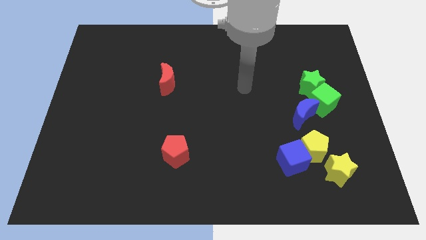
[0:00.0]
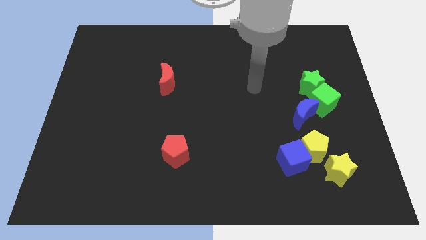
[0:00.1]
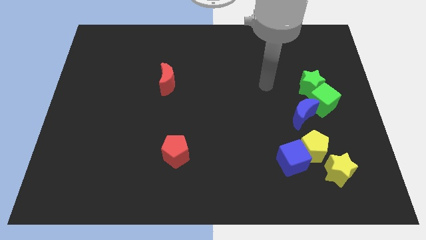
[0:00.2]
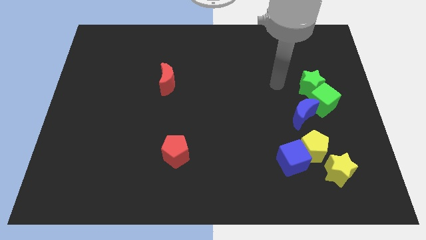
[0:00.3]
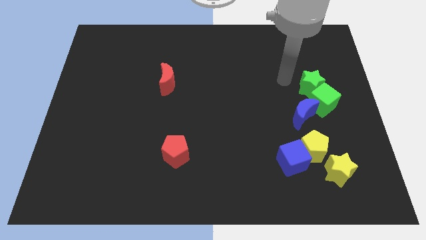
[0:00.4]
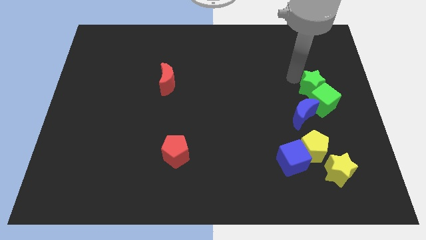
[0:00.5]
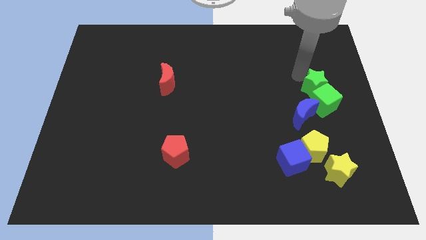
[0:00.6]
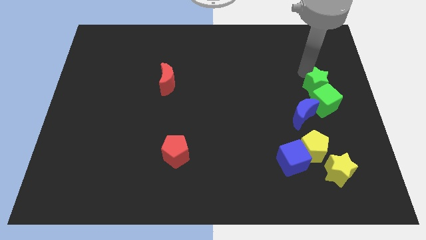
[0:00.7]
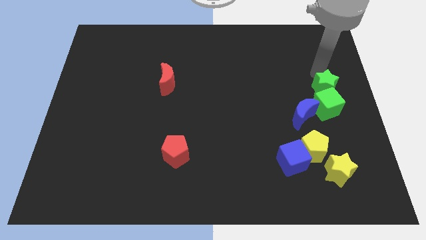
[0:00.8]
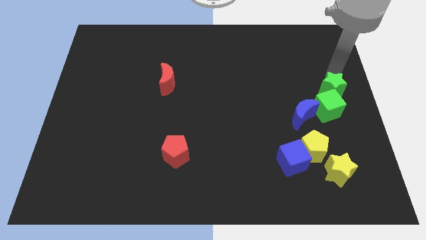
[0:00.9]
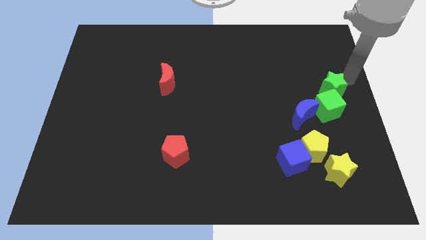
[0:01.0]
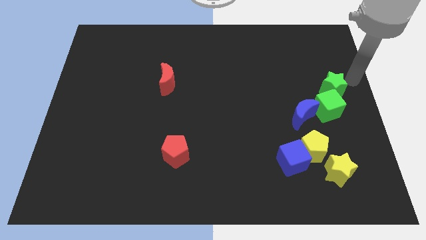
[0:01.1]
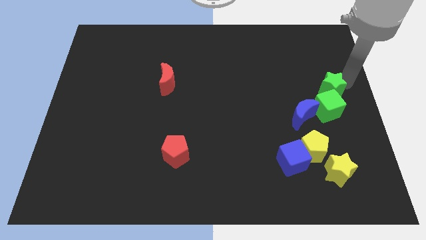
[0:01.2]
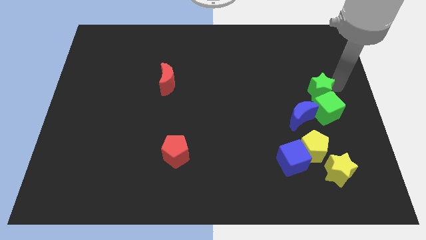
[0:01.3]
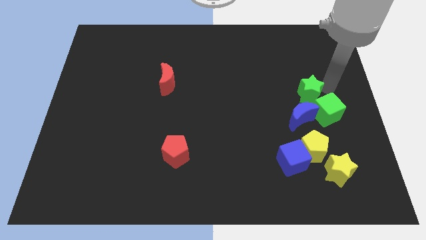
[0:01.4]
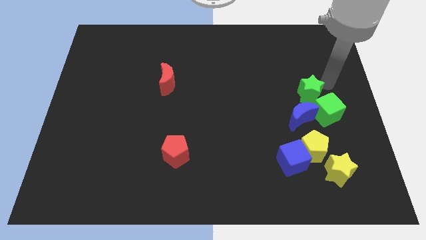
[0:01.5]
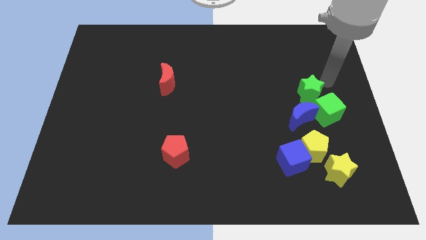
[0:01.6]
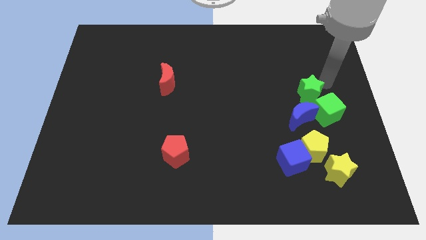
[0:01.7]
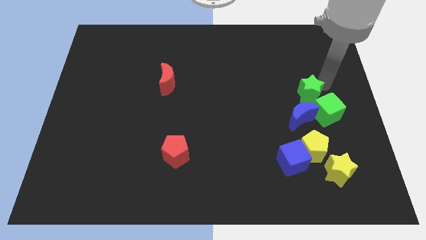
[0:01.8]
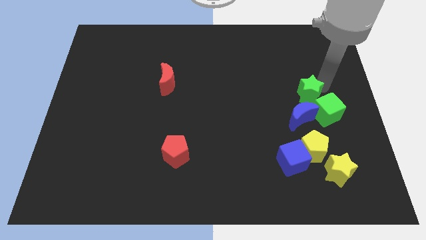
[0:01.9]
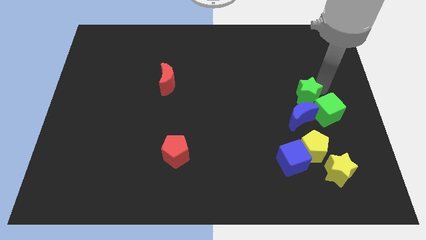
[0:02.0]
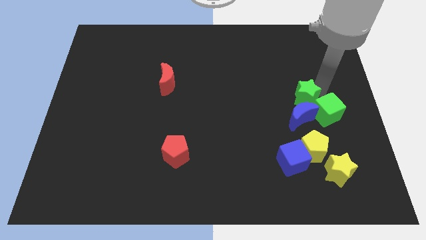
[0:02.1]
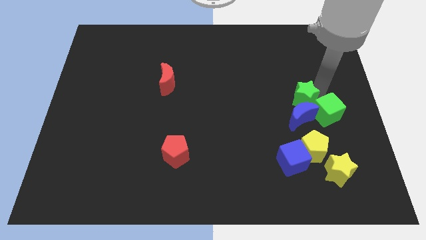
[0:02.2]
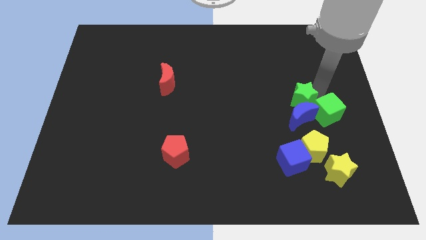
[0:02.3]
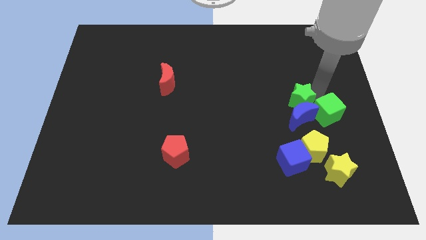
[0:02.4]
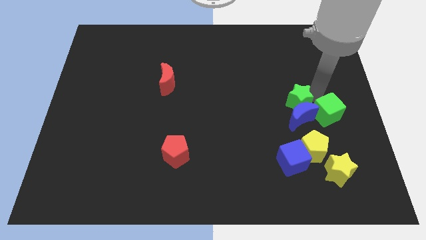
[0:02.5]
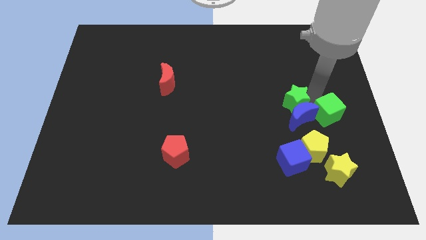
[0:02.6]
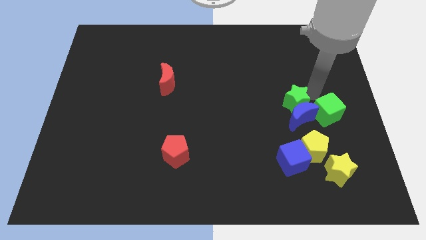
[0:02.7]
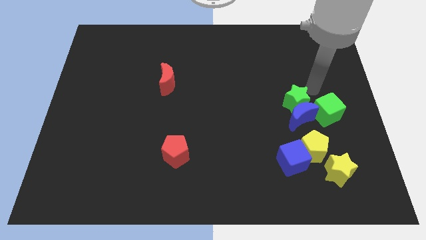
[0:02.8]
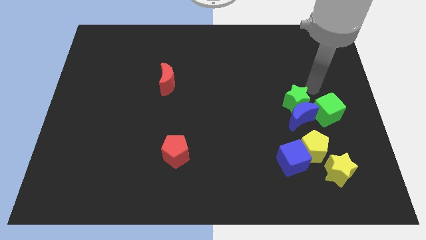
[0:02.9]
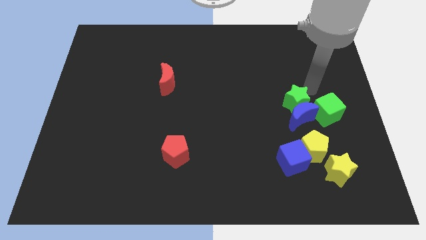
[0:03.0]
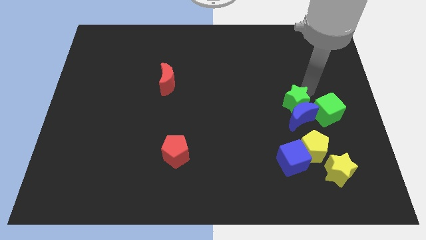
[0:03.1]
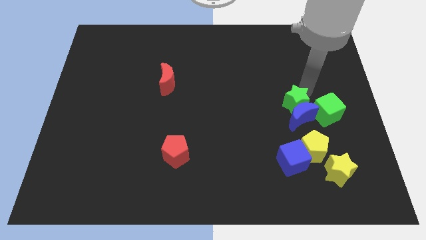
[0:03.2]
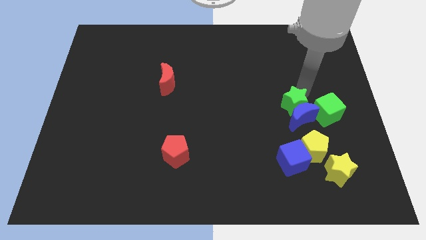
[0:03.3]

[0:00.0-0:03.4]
move the green star a little bit downwards and left

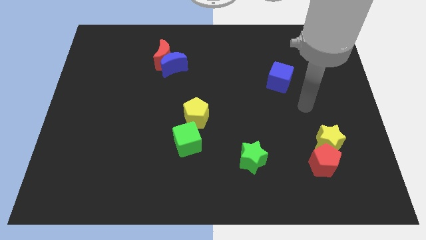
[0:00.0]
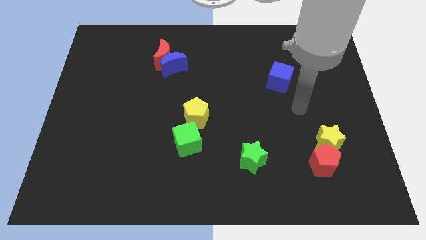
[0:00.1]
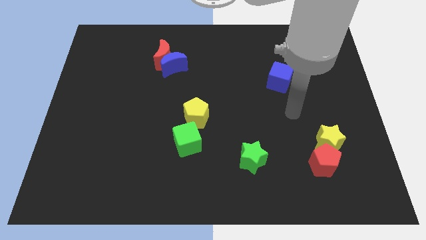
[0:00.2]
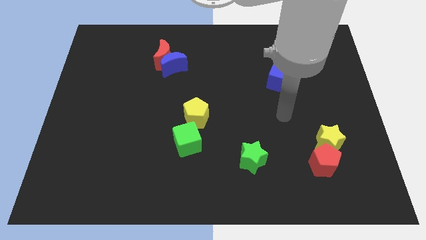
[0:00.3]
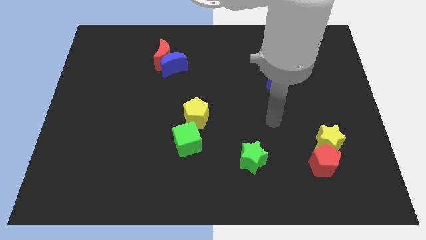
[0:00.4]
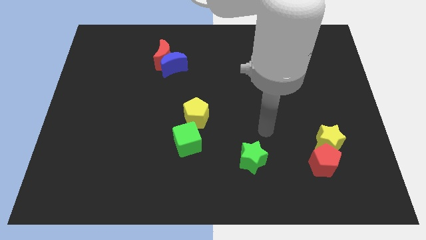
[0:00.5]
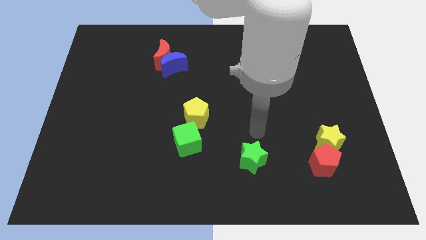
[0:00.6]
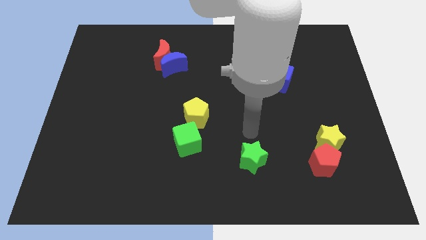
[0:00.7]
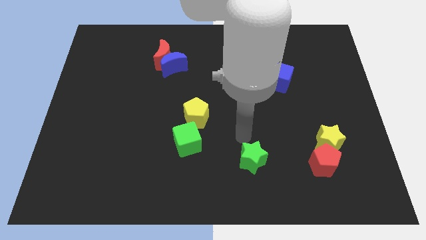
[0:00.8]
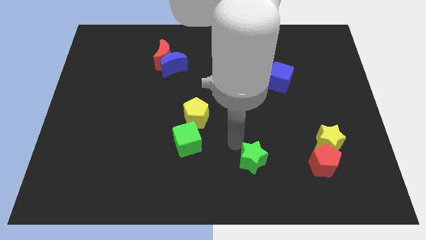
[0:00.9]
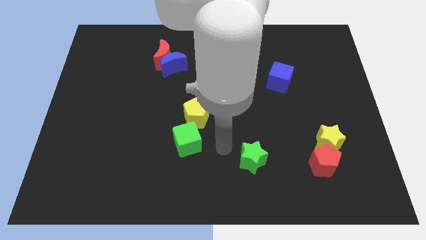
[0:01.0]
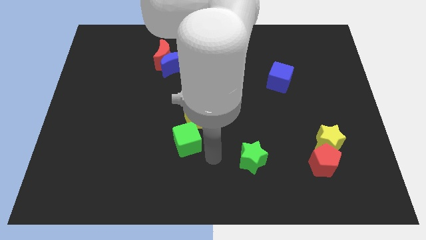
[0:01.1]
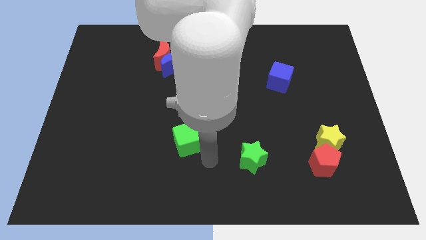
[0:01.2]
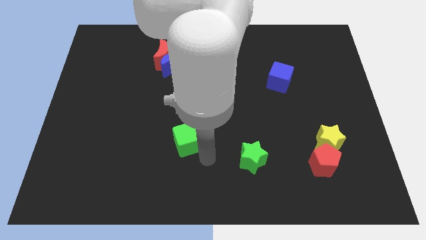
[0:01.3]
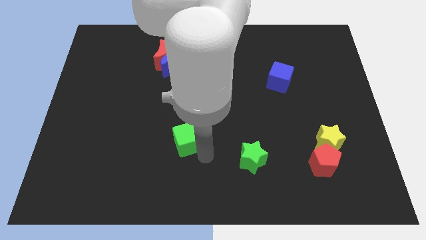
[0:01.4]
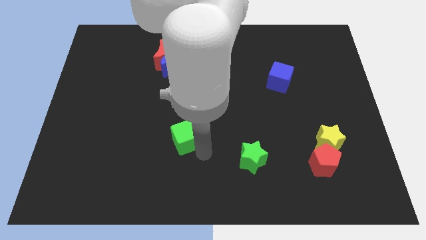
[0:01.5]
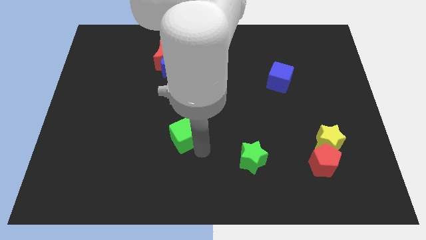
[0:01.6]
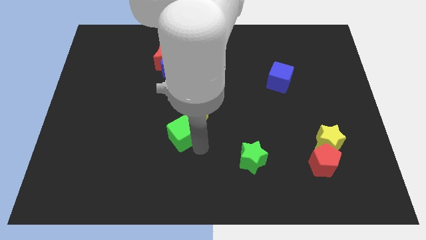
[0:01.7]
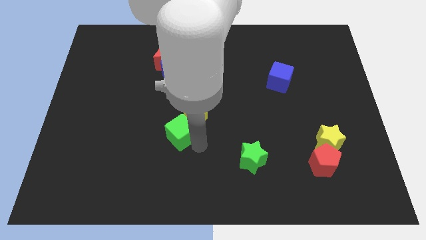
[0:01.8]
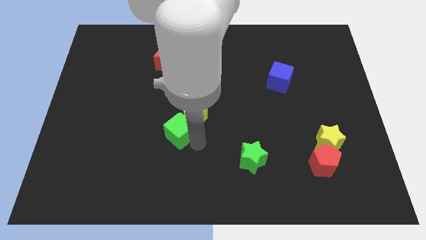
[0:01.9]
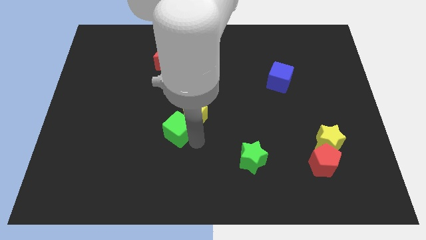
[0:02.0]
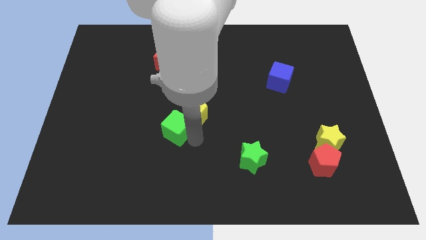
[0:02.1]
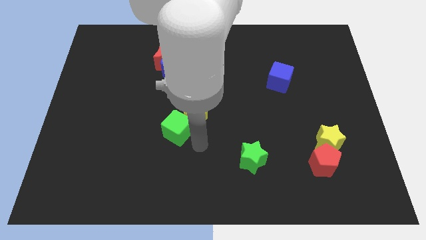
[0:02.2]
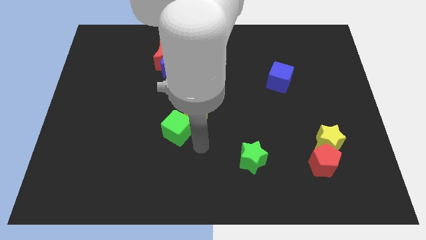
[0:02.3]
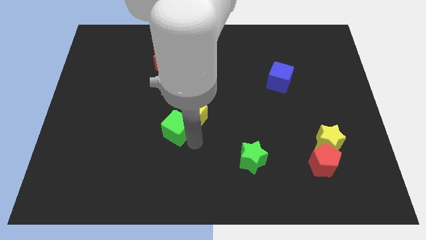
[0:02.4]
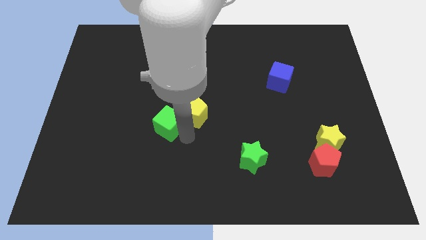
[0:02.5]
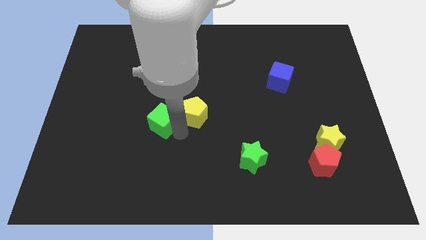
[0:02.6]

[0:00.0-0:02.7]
slightly slide the green cube up and then left

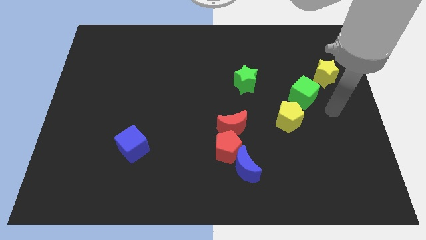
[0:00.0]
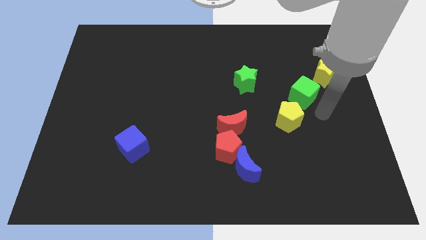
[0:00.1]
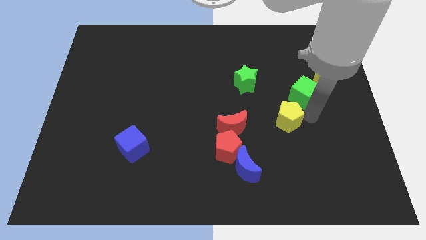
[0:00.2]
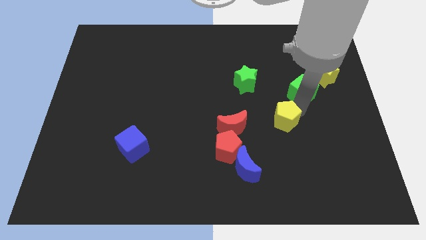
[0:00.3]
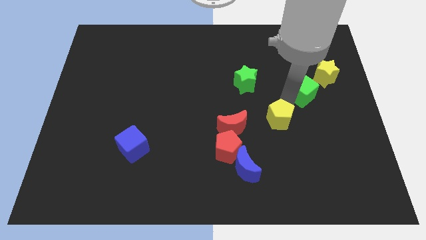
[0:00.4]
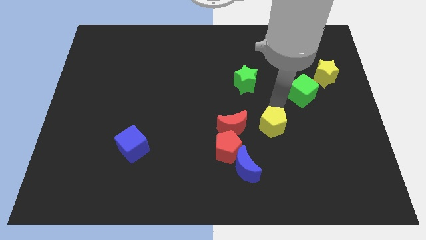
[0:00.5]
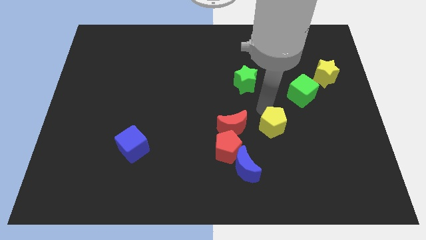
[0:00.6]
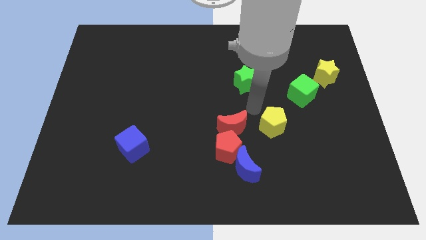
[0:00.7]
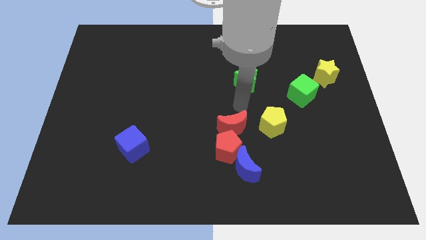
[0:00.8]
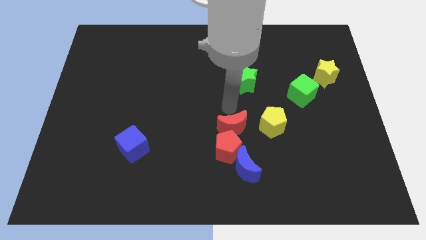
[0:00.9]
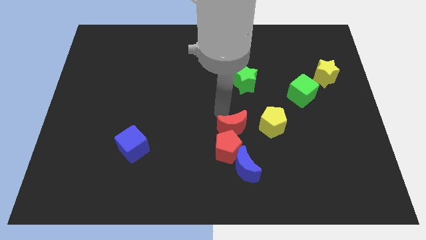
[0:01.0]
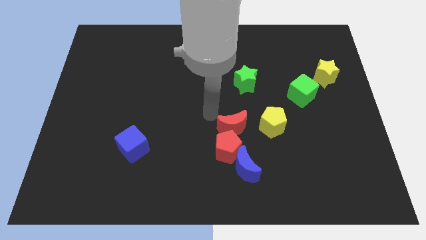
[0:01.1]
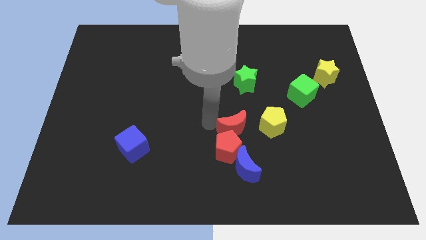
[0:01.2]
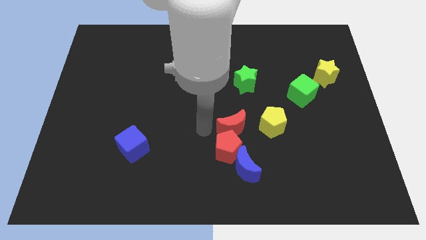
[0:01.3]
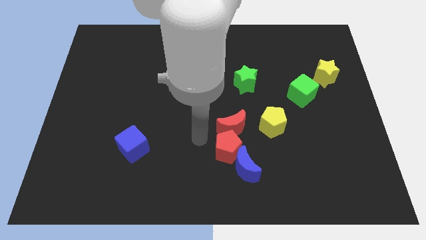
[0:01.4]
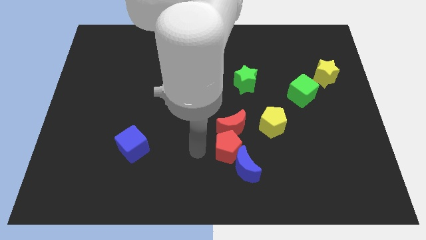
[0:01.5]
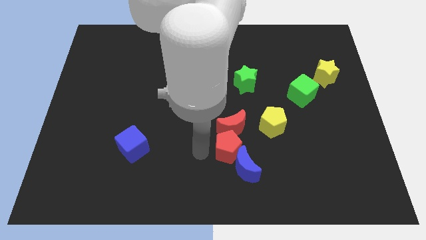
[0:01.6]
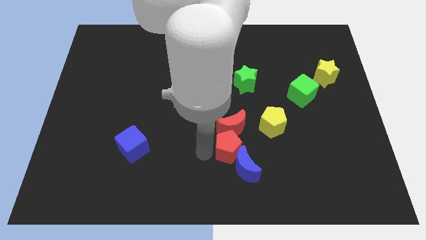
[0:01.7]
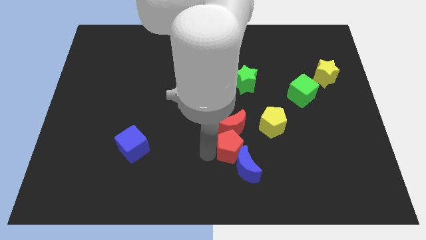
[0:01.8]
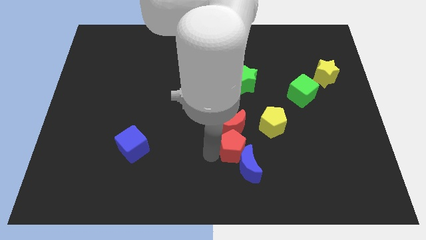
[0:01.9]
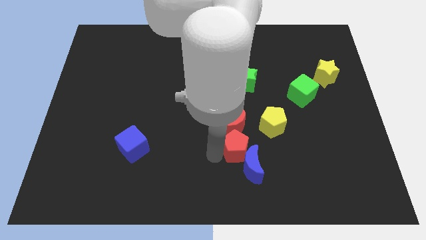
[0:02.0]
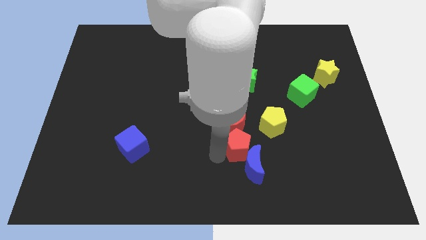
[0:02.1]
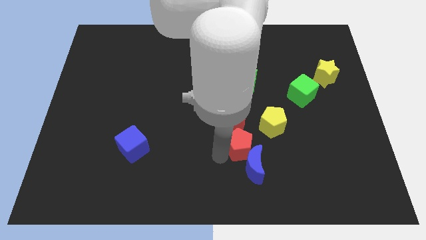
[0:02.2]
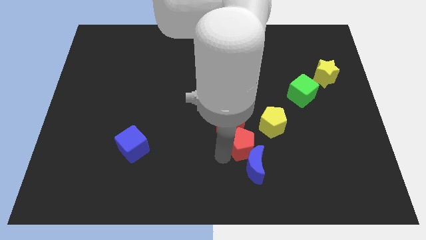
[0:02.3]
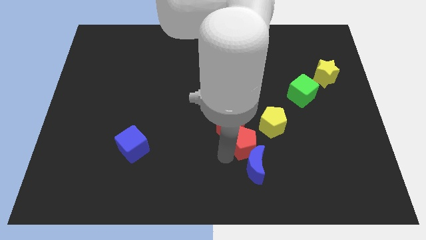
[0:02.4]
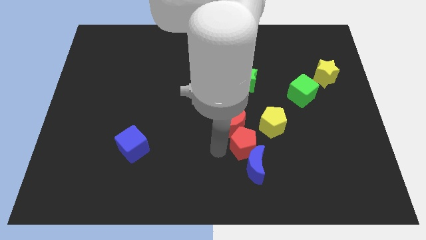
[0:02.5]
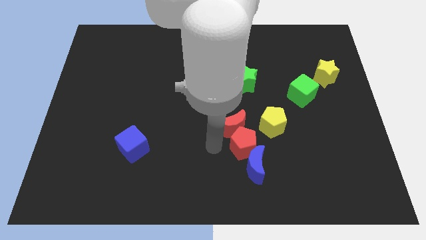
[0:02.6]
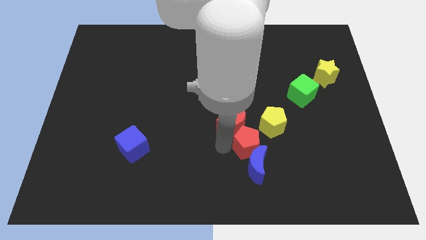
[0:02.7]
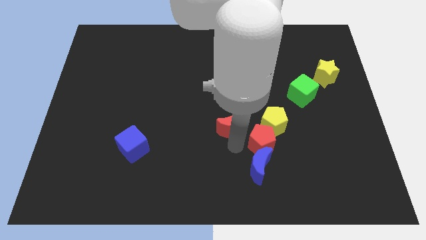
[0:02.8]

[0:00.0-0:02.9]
move the red pentagon slightly right
